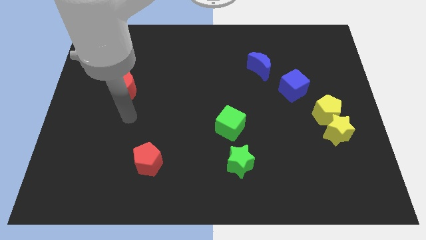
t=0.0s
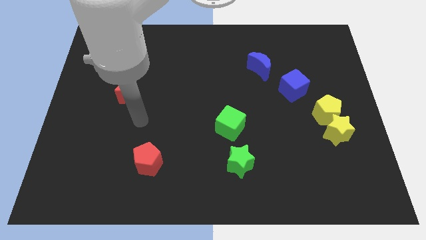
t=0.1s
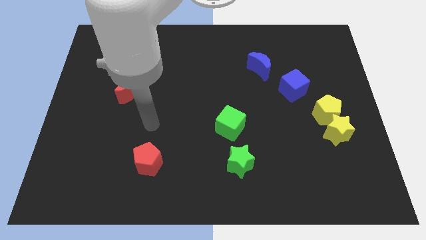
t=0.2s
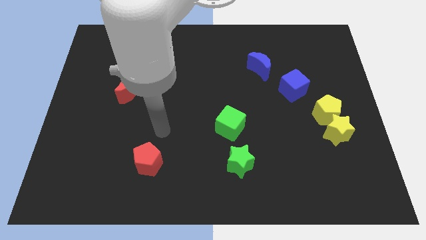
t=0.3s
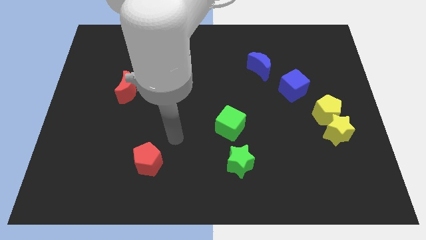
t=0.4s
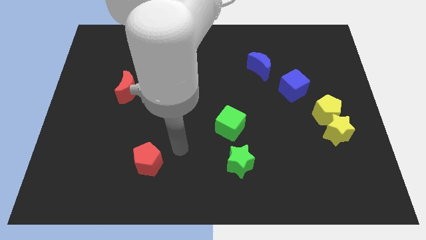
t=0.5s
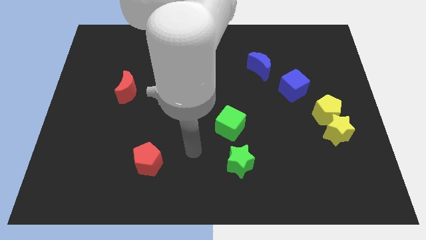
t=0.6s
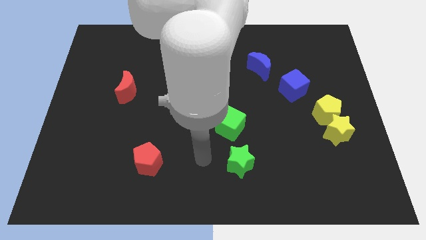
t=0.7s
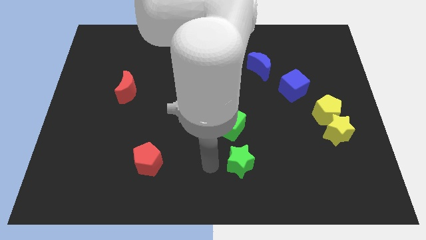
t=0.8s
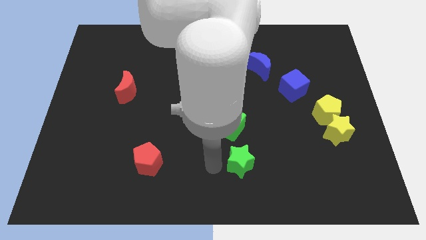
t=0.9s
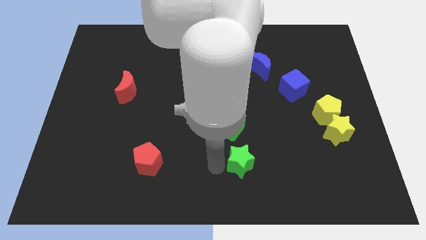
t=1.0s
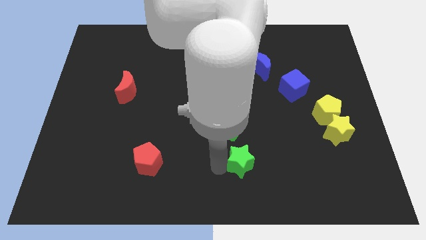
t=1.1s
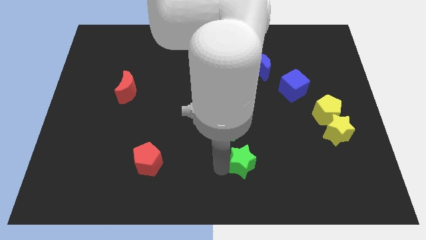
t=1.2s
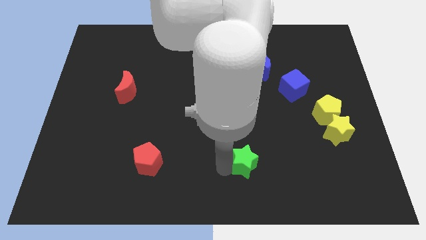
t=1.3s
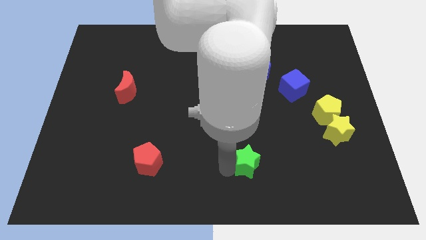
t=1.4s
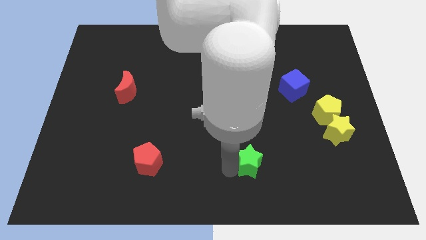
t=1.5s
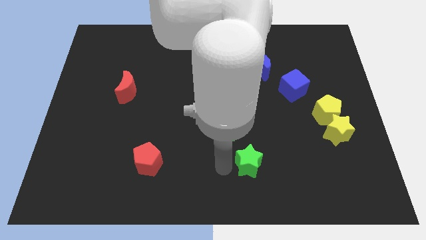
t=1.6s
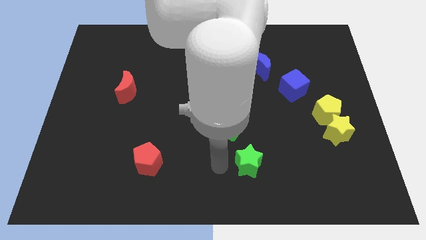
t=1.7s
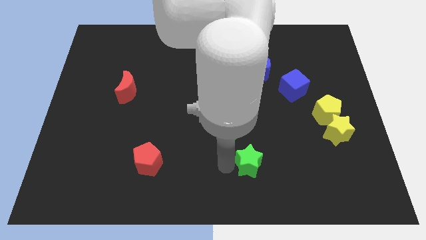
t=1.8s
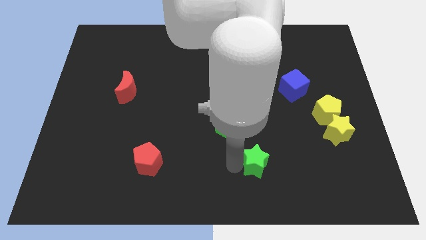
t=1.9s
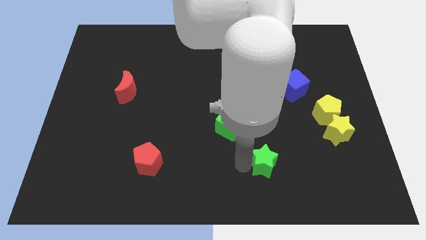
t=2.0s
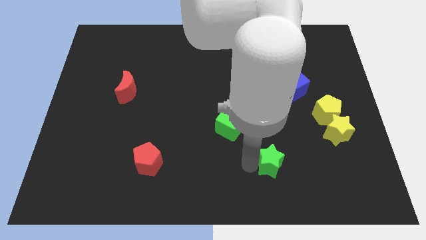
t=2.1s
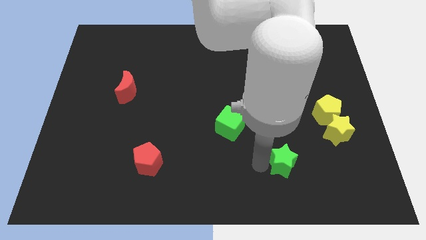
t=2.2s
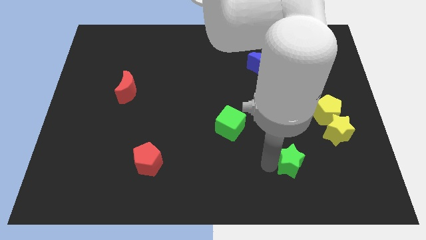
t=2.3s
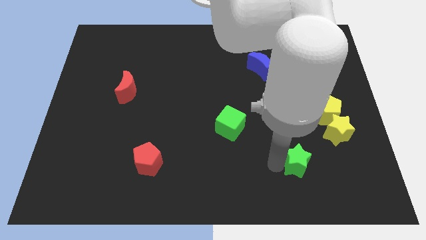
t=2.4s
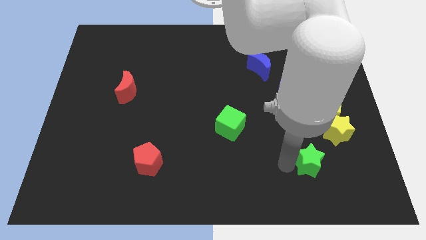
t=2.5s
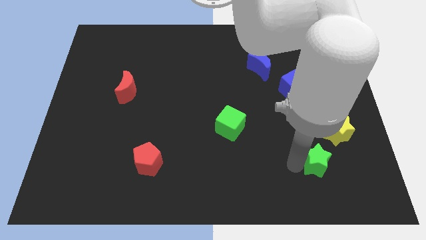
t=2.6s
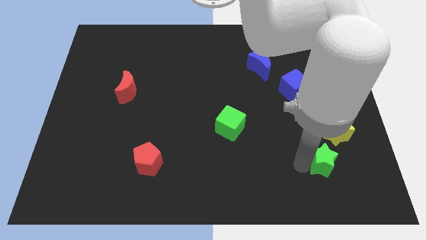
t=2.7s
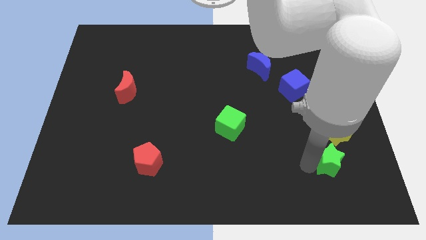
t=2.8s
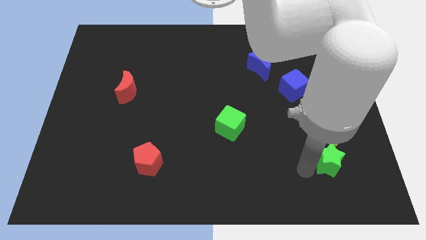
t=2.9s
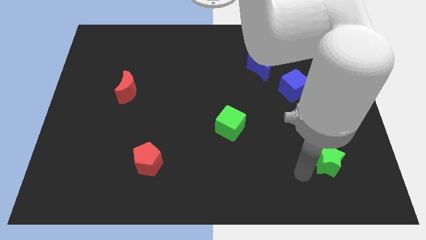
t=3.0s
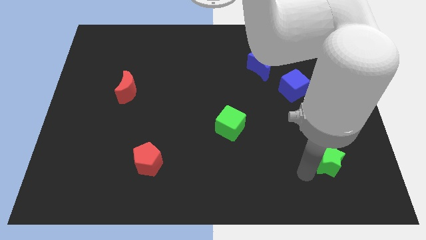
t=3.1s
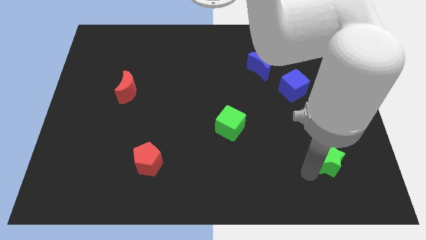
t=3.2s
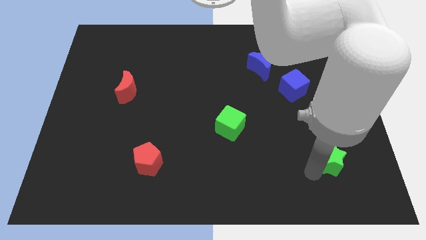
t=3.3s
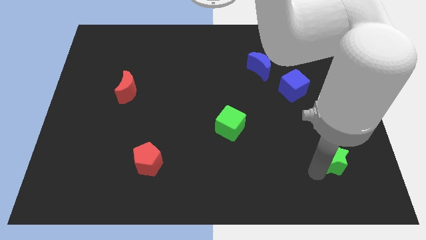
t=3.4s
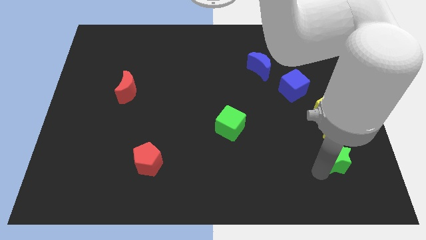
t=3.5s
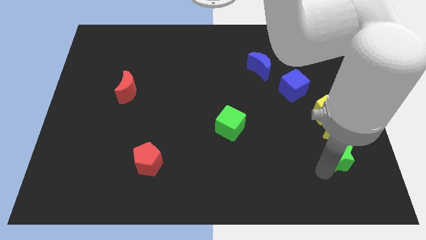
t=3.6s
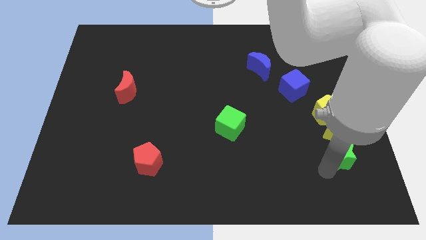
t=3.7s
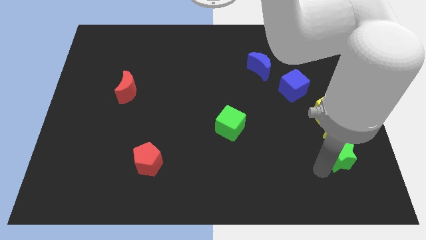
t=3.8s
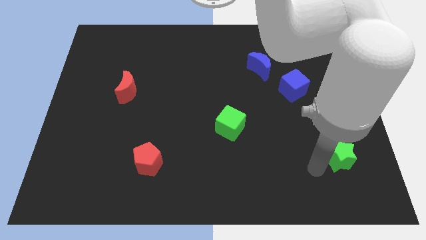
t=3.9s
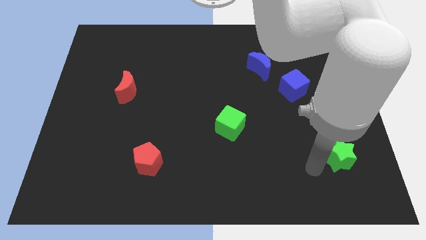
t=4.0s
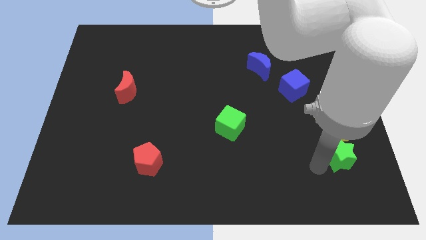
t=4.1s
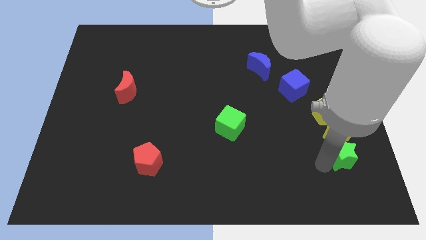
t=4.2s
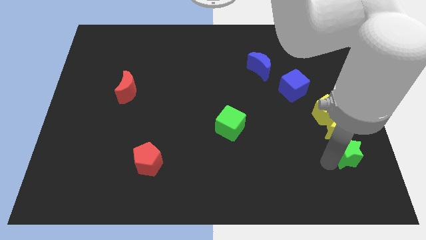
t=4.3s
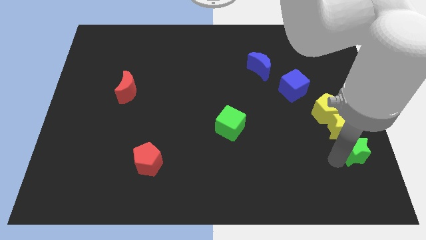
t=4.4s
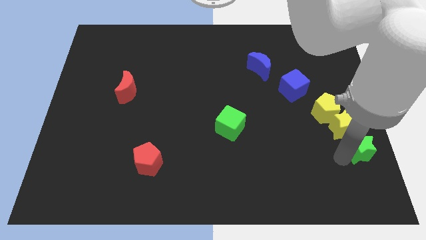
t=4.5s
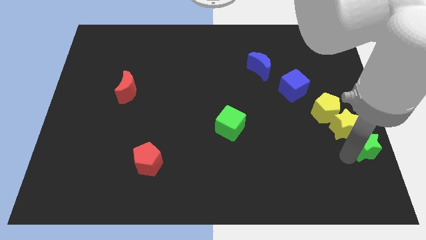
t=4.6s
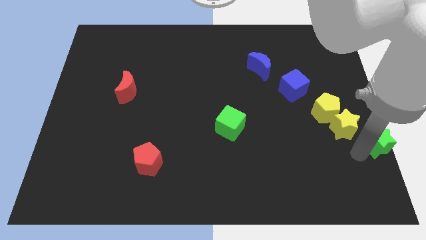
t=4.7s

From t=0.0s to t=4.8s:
slide the green star to the right side of the board

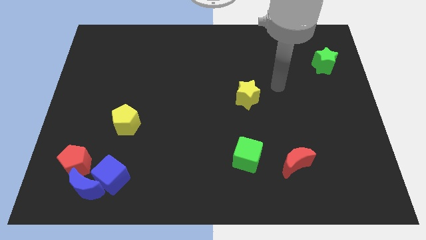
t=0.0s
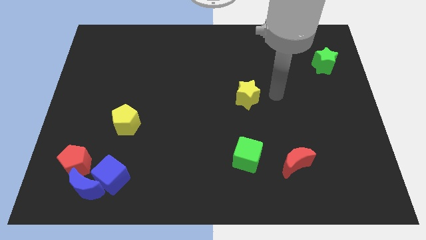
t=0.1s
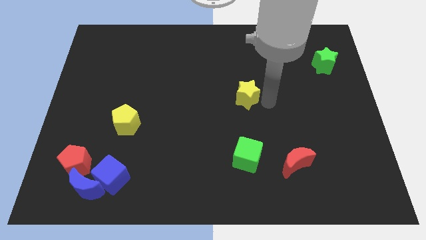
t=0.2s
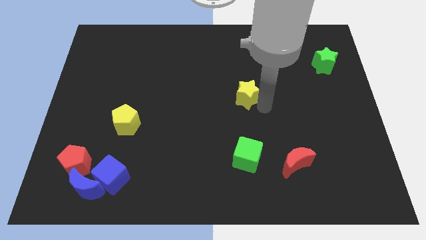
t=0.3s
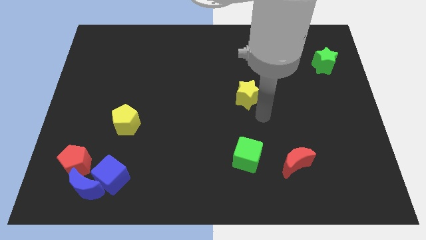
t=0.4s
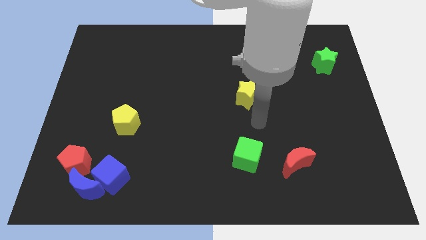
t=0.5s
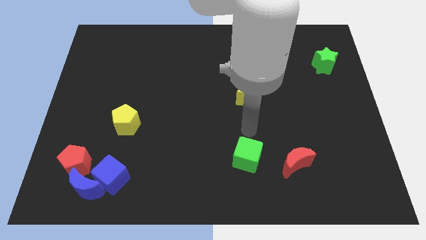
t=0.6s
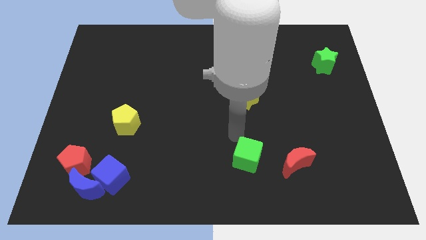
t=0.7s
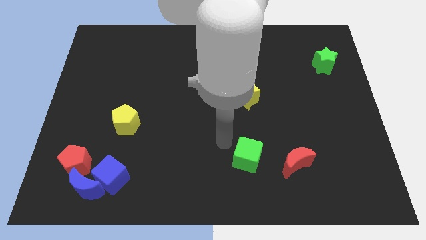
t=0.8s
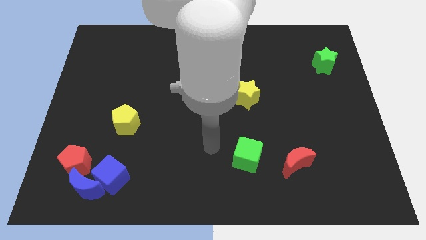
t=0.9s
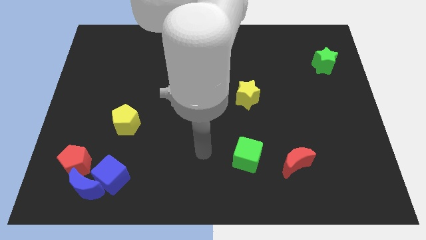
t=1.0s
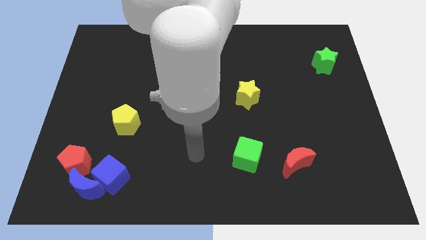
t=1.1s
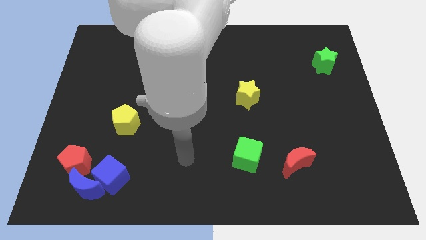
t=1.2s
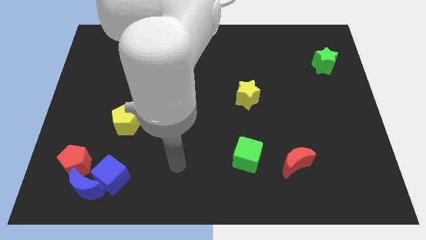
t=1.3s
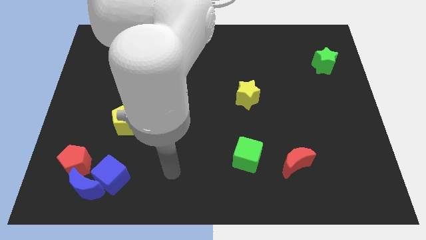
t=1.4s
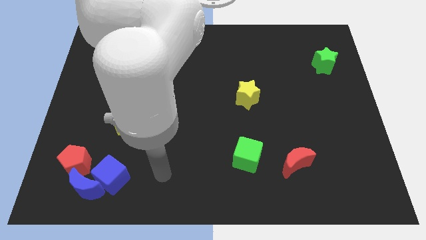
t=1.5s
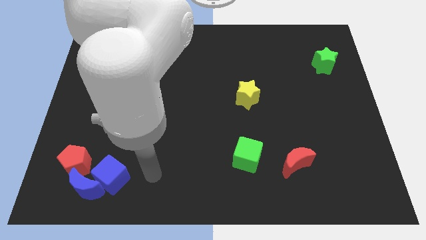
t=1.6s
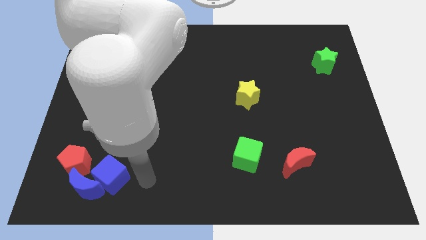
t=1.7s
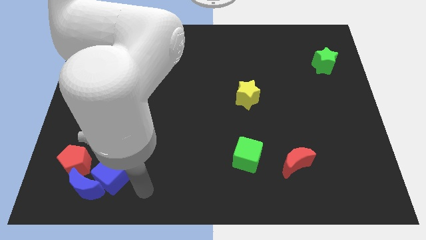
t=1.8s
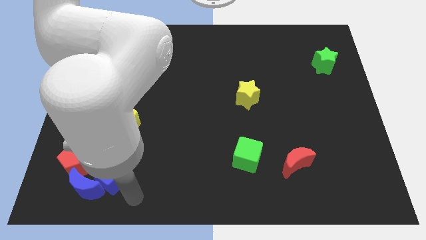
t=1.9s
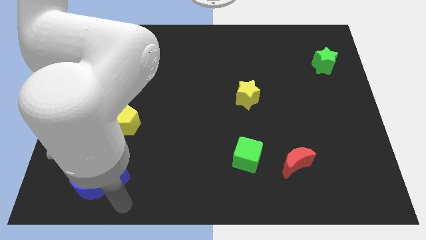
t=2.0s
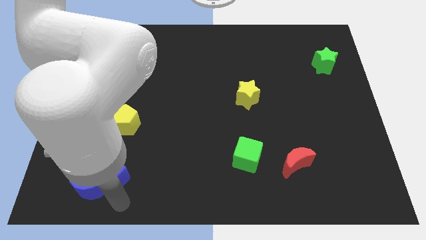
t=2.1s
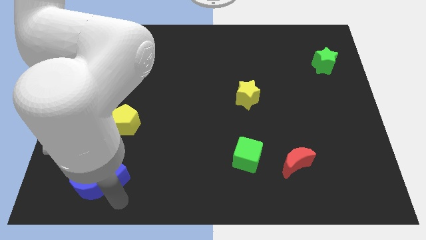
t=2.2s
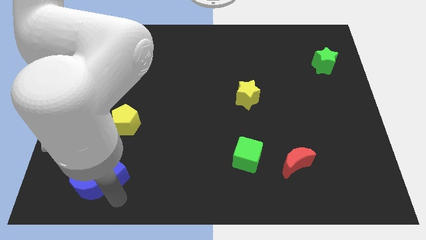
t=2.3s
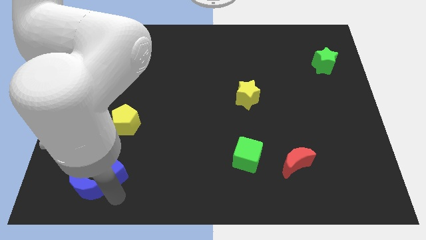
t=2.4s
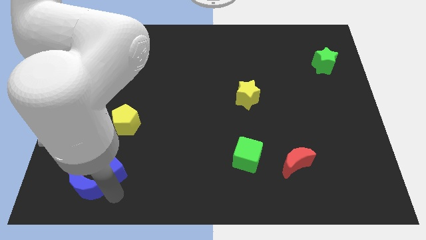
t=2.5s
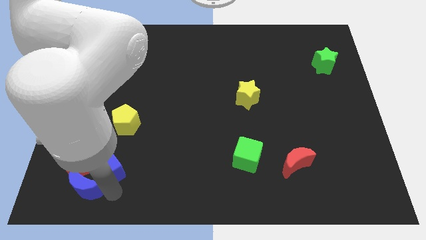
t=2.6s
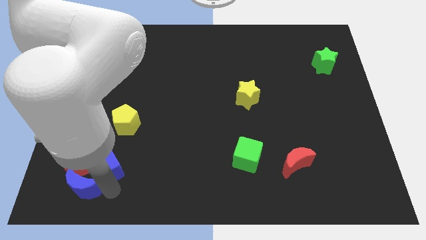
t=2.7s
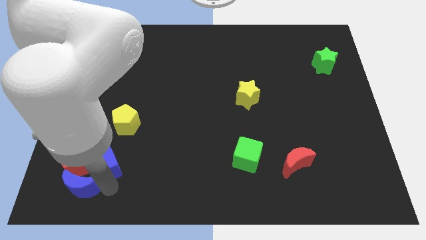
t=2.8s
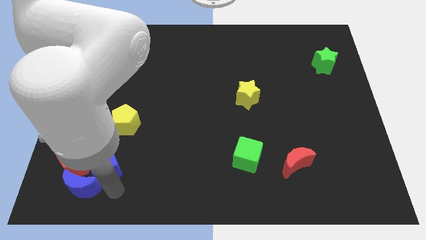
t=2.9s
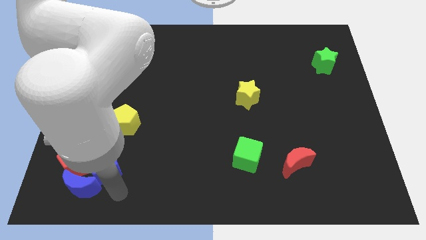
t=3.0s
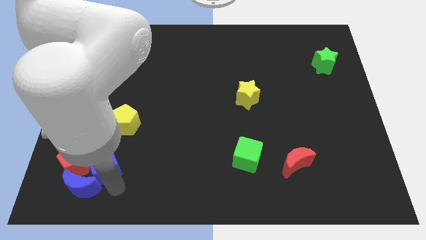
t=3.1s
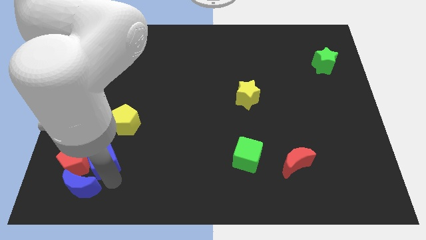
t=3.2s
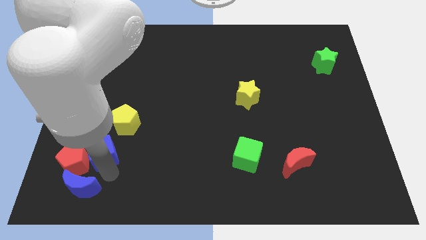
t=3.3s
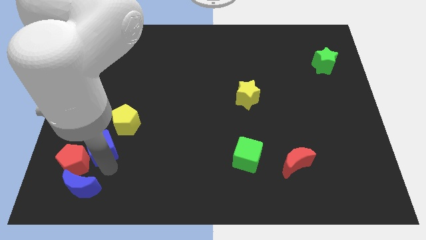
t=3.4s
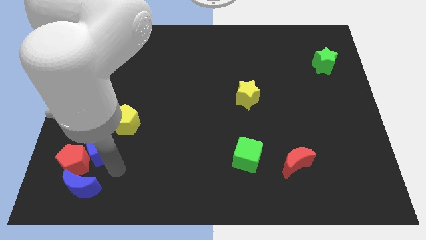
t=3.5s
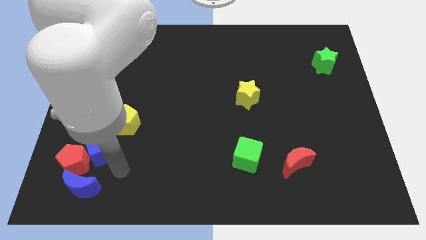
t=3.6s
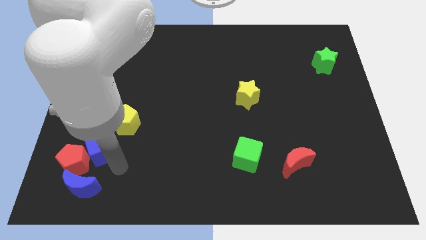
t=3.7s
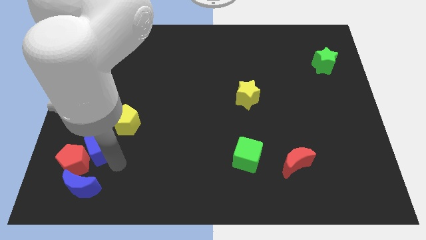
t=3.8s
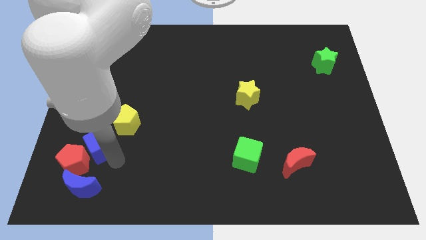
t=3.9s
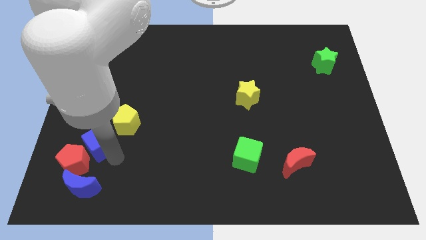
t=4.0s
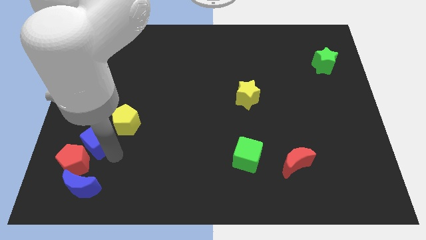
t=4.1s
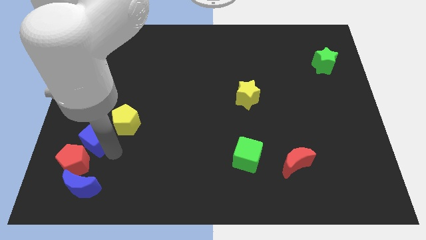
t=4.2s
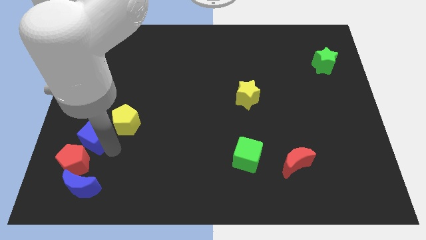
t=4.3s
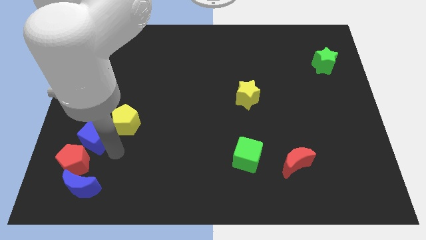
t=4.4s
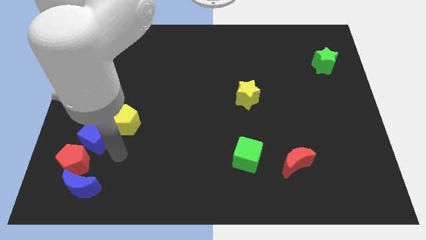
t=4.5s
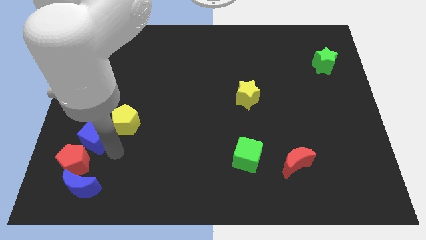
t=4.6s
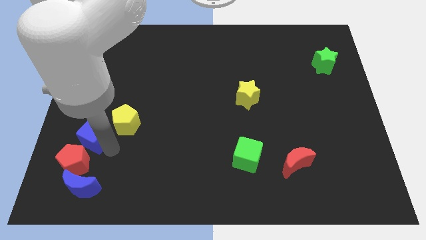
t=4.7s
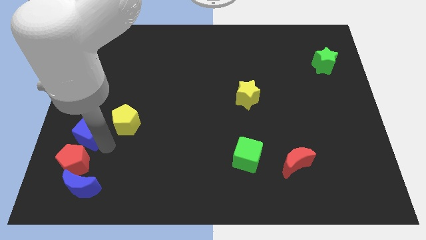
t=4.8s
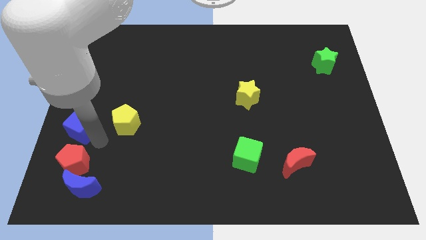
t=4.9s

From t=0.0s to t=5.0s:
slide the blue cube to the center left
